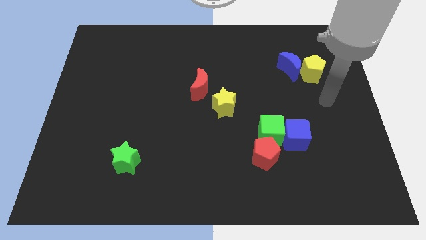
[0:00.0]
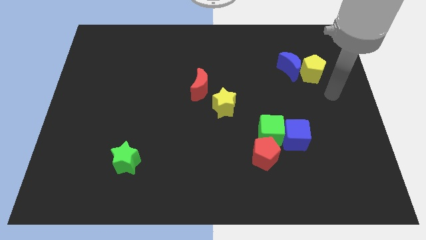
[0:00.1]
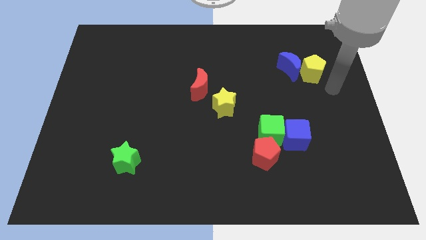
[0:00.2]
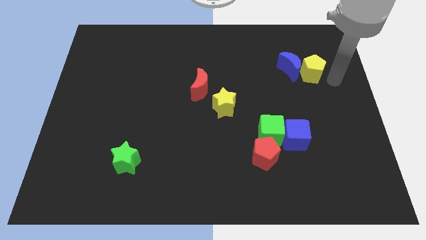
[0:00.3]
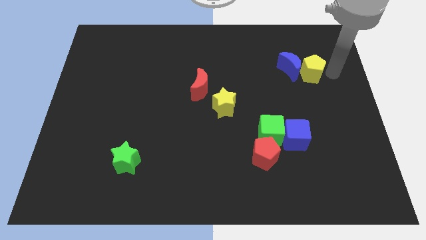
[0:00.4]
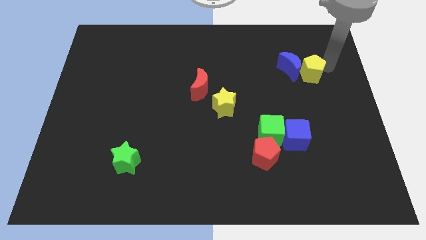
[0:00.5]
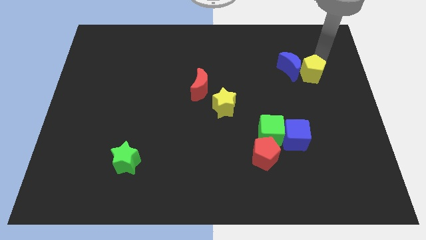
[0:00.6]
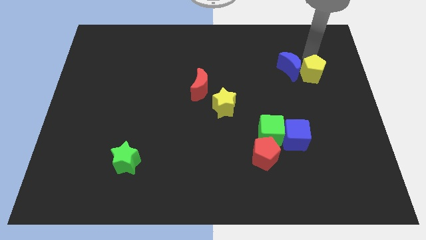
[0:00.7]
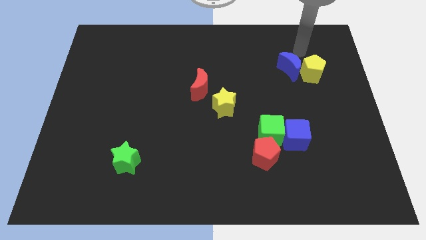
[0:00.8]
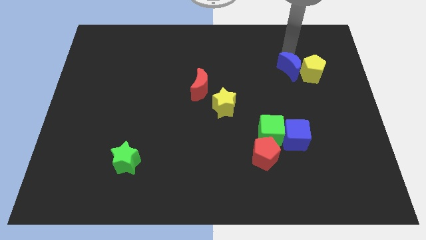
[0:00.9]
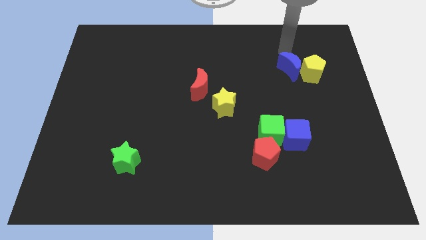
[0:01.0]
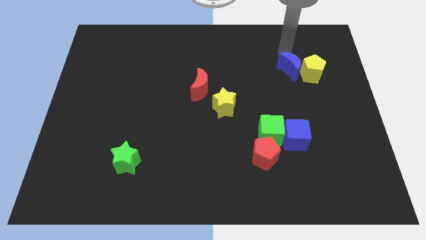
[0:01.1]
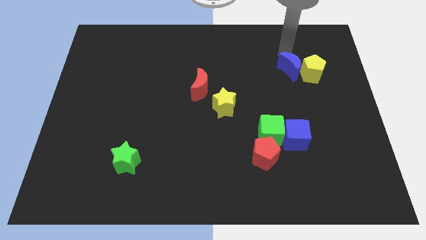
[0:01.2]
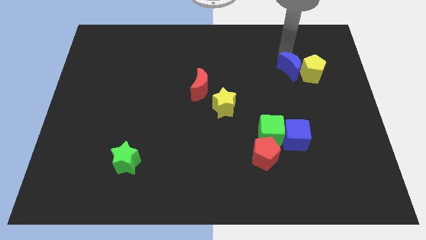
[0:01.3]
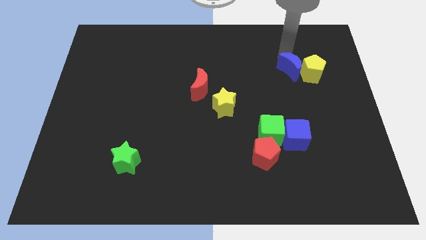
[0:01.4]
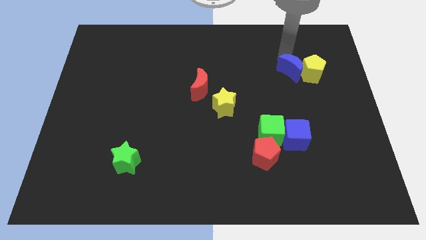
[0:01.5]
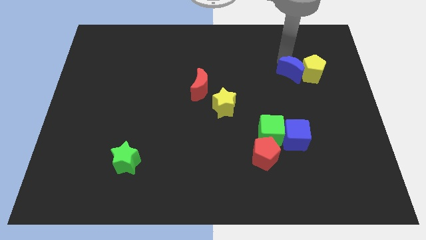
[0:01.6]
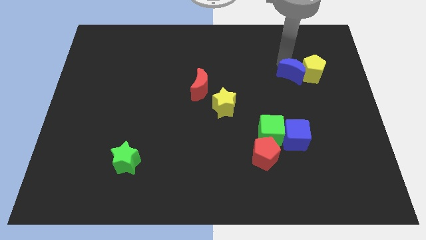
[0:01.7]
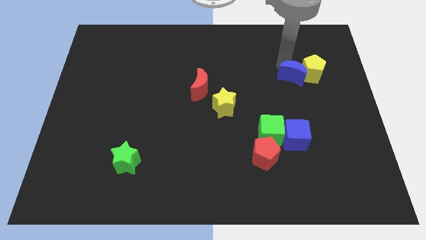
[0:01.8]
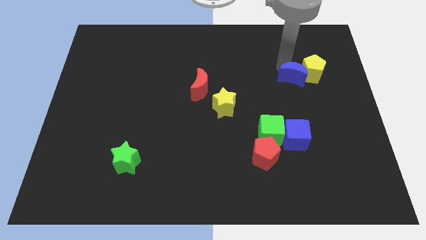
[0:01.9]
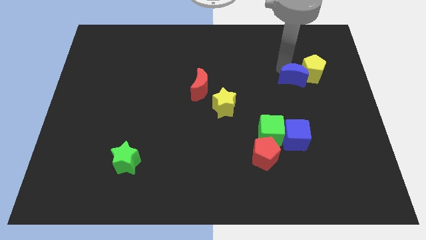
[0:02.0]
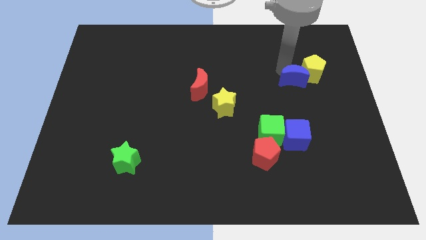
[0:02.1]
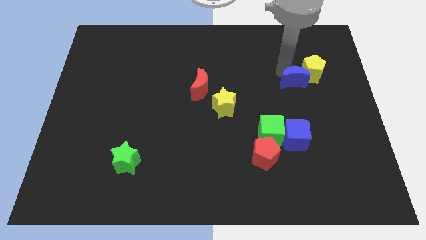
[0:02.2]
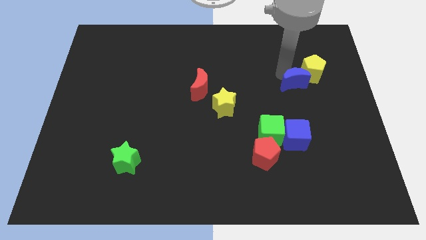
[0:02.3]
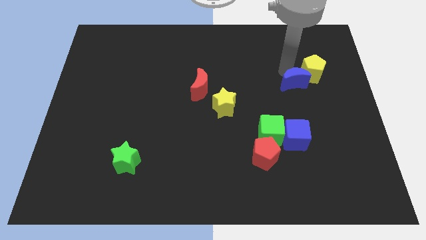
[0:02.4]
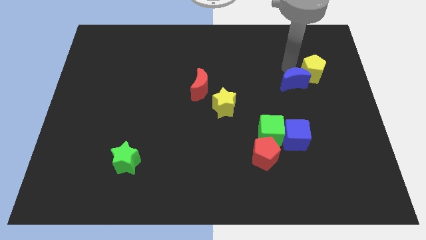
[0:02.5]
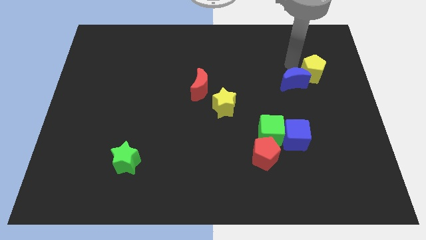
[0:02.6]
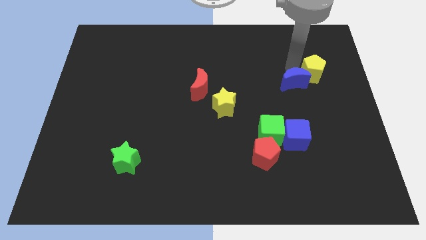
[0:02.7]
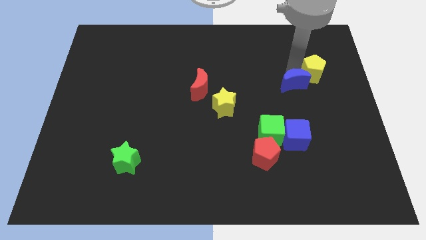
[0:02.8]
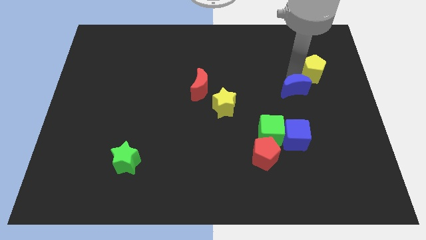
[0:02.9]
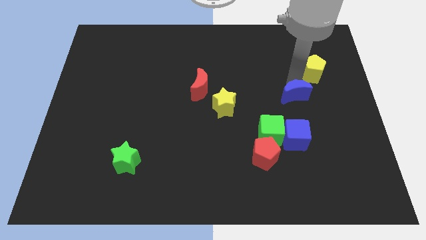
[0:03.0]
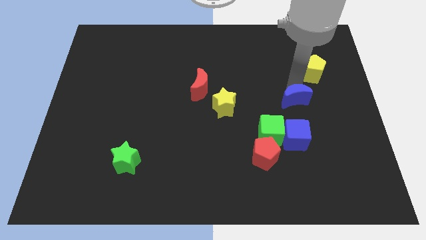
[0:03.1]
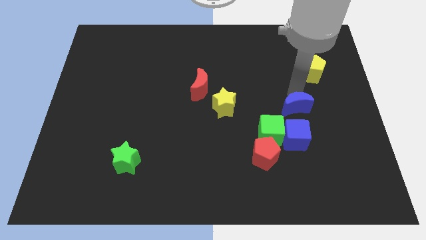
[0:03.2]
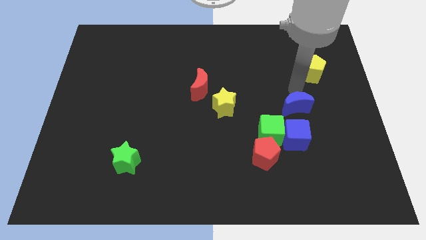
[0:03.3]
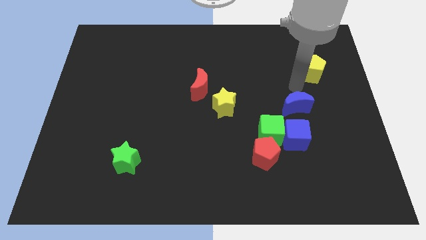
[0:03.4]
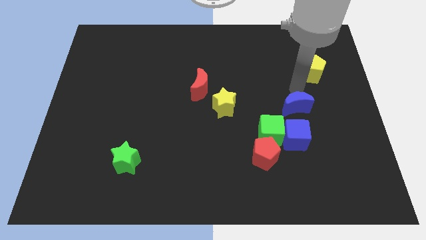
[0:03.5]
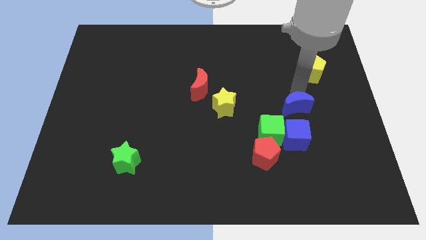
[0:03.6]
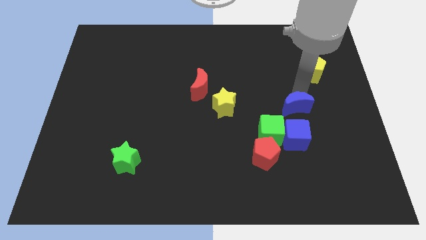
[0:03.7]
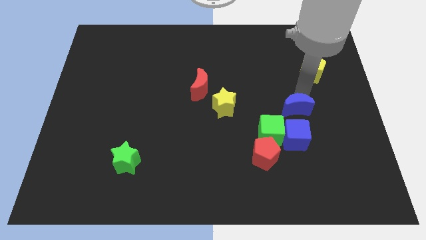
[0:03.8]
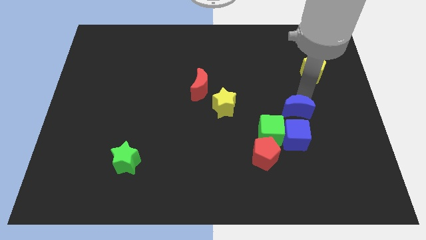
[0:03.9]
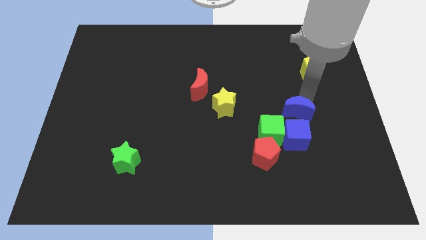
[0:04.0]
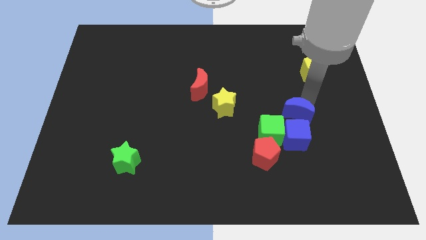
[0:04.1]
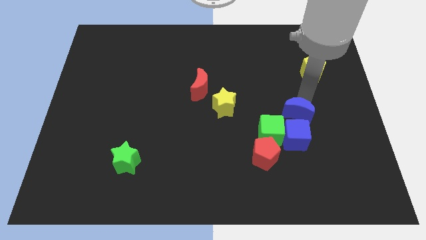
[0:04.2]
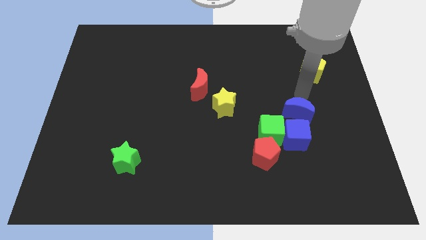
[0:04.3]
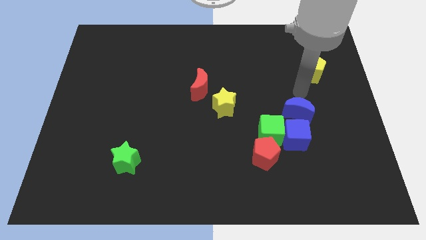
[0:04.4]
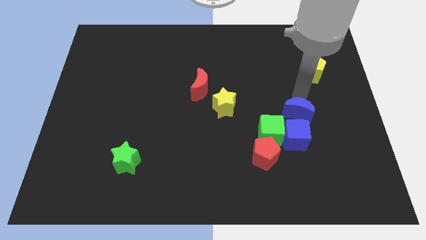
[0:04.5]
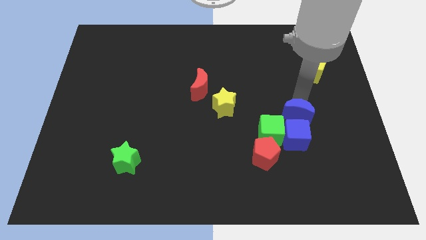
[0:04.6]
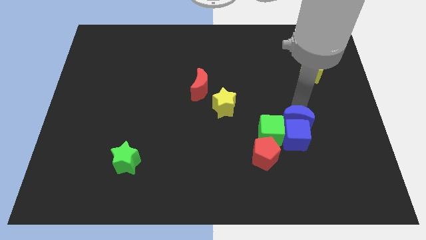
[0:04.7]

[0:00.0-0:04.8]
put the blue moon next to the blue cube

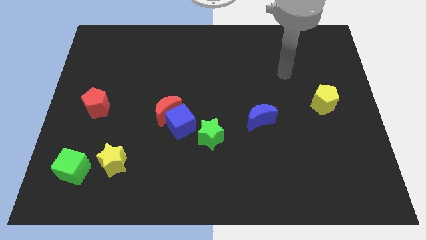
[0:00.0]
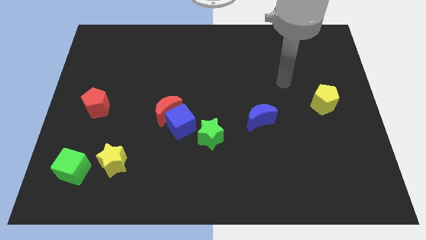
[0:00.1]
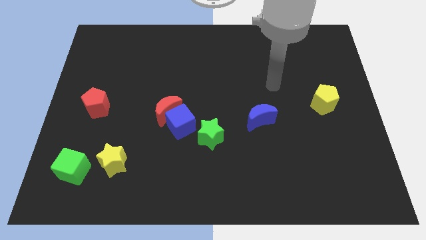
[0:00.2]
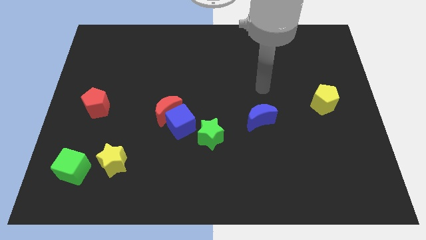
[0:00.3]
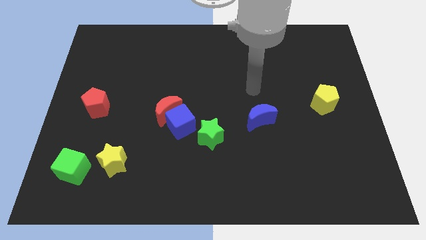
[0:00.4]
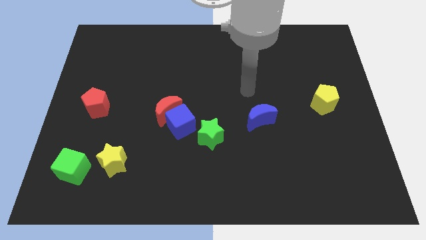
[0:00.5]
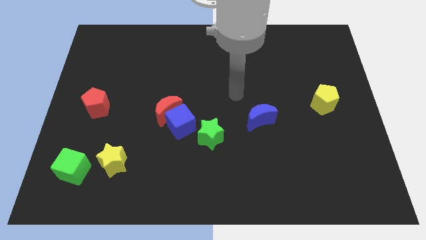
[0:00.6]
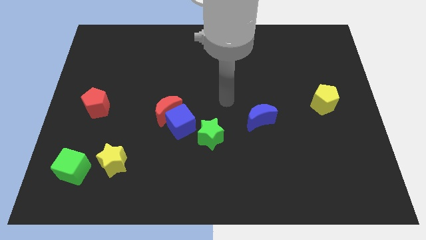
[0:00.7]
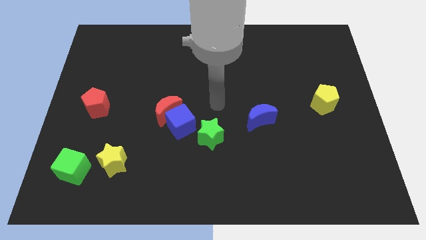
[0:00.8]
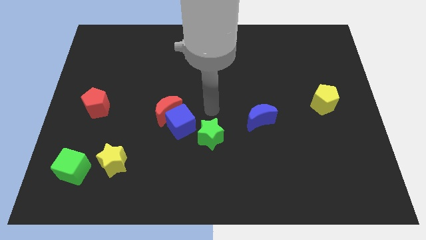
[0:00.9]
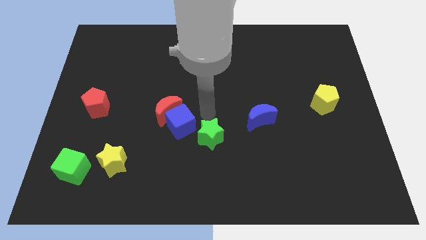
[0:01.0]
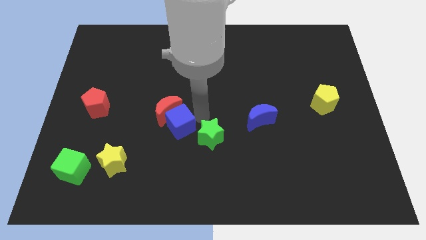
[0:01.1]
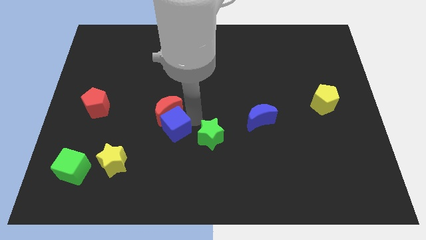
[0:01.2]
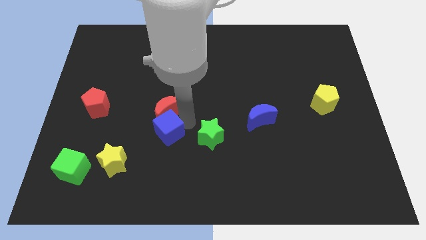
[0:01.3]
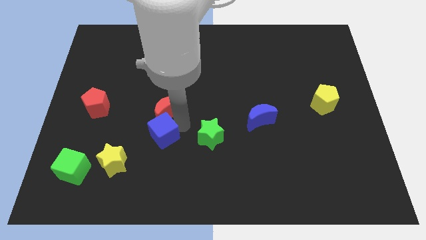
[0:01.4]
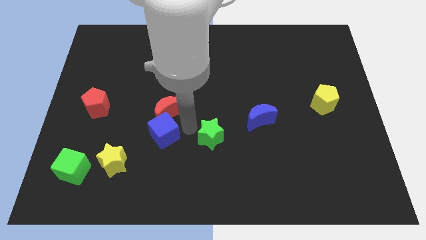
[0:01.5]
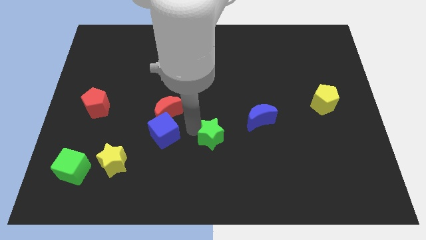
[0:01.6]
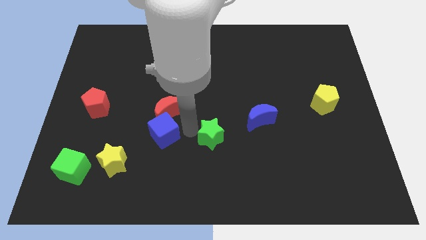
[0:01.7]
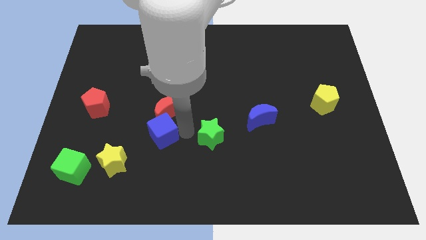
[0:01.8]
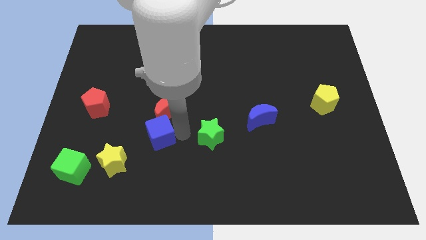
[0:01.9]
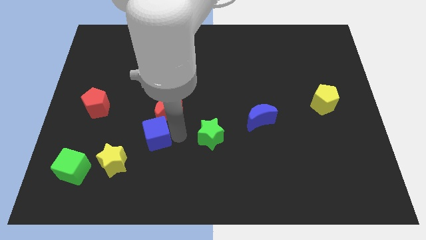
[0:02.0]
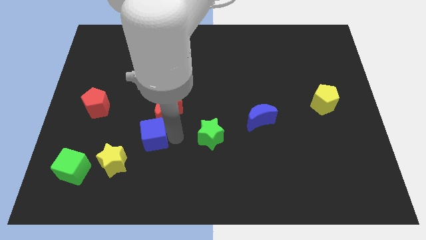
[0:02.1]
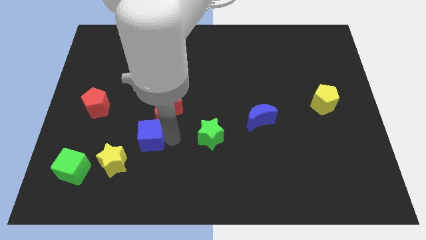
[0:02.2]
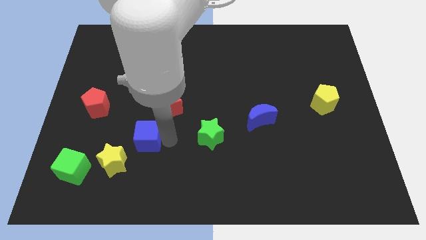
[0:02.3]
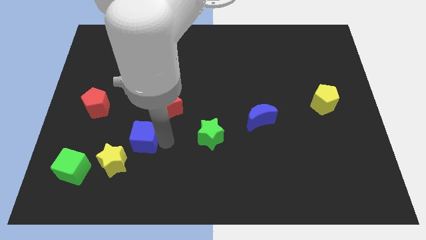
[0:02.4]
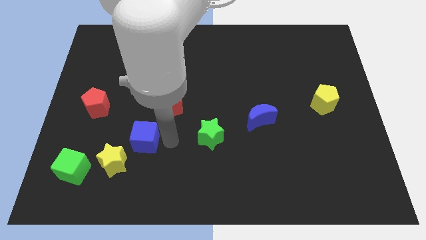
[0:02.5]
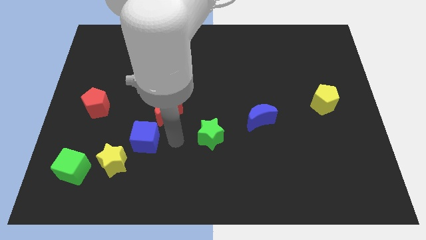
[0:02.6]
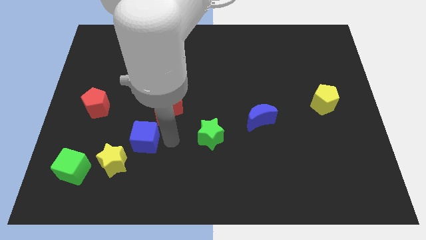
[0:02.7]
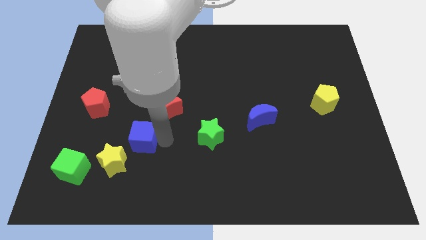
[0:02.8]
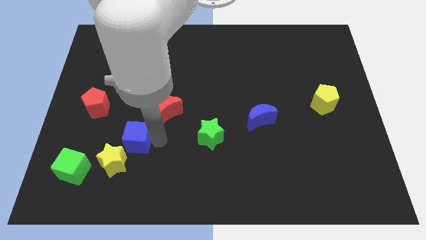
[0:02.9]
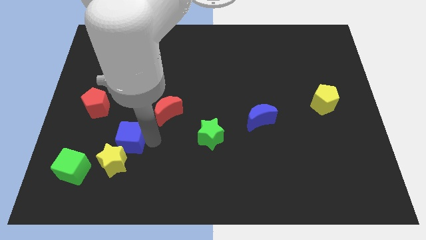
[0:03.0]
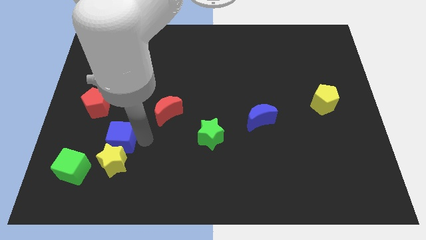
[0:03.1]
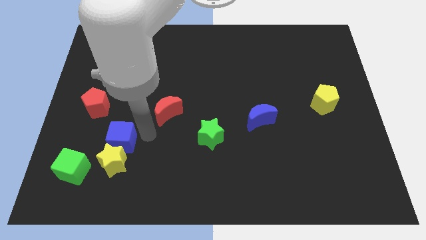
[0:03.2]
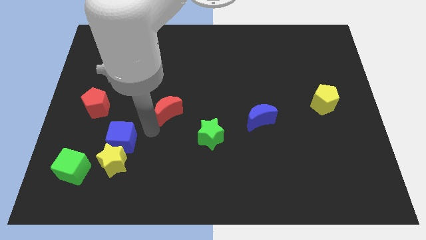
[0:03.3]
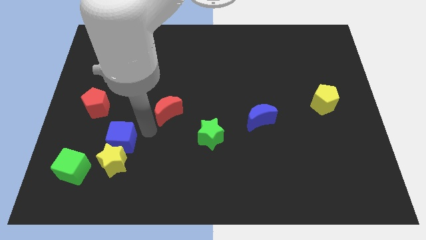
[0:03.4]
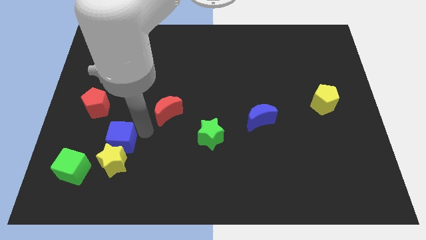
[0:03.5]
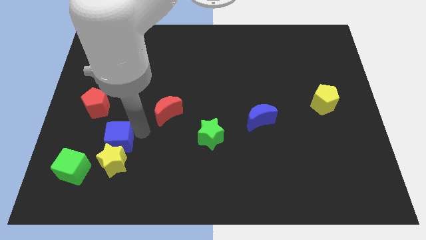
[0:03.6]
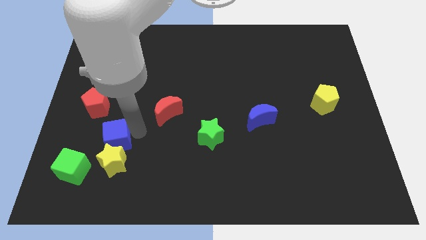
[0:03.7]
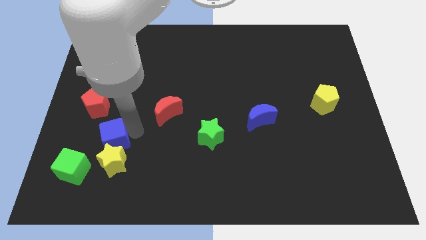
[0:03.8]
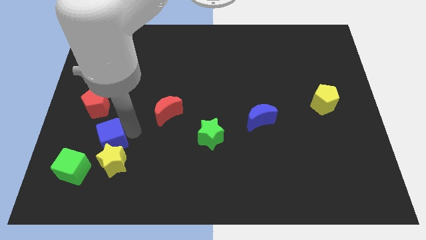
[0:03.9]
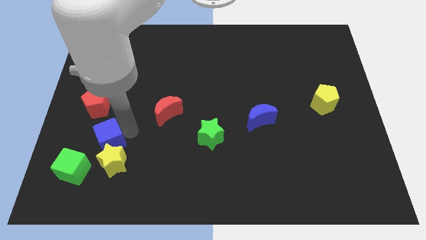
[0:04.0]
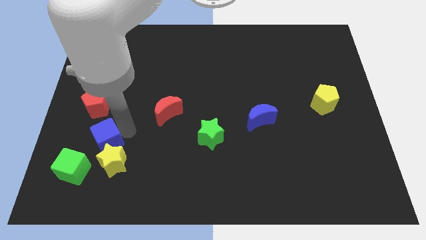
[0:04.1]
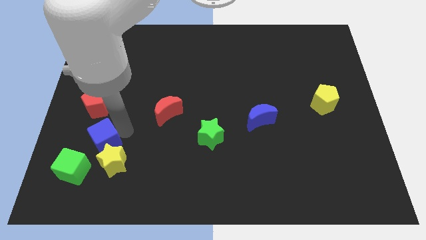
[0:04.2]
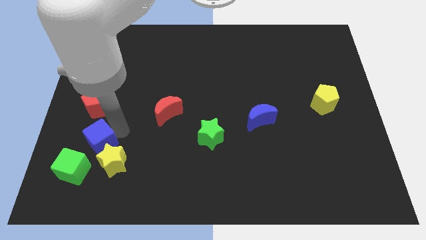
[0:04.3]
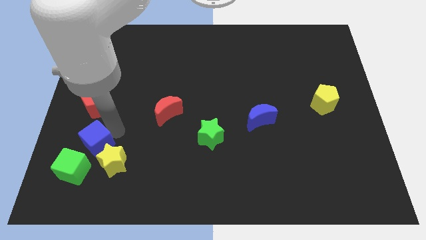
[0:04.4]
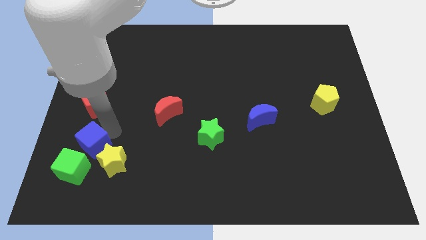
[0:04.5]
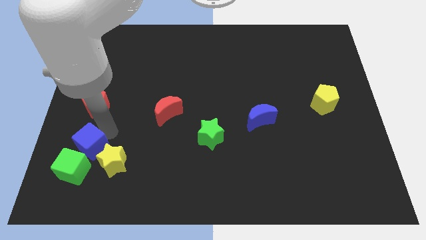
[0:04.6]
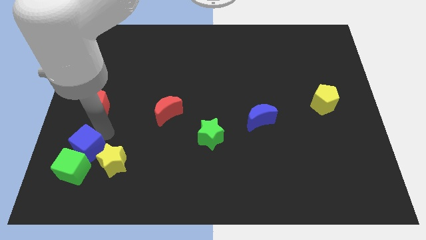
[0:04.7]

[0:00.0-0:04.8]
push the blue cube towards the green cube
